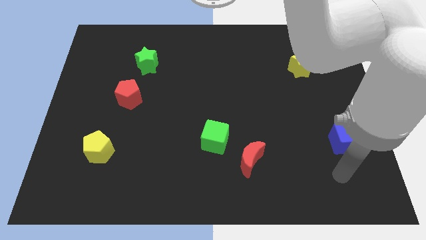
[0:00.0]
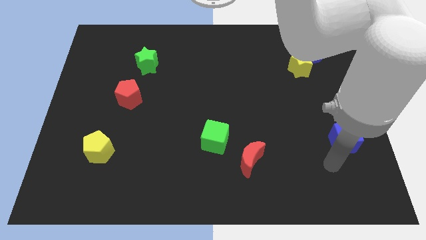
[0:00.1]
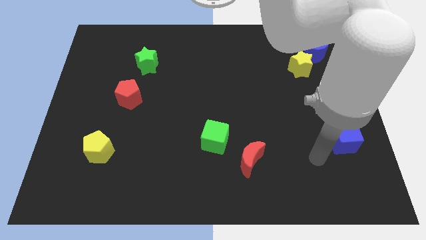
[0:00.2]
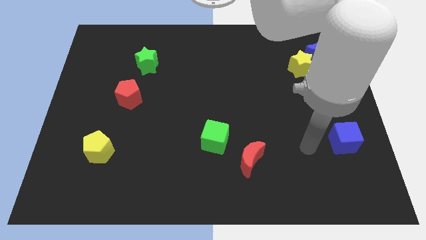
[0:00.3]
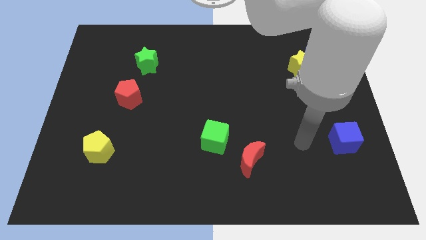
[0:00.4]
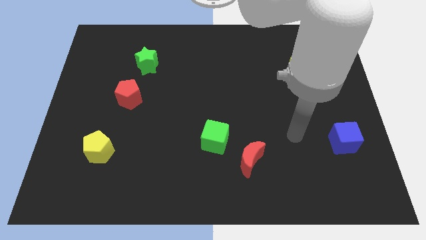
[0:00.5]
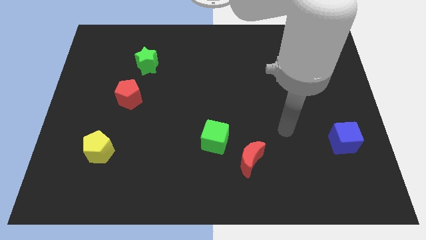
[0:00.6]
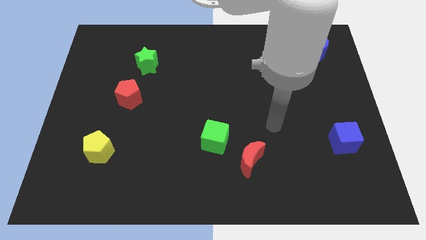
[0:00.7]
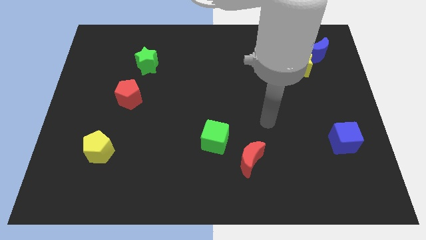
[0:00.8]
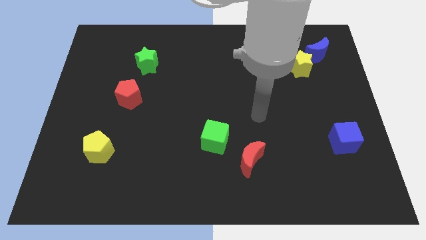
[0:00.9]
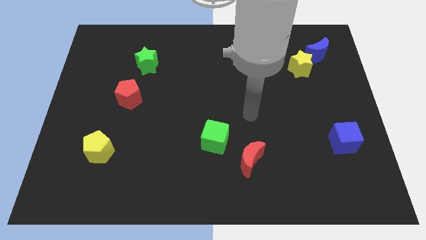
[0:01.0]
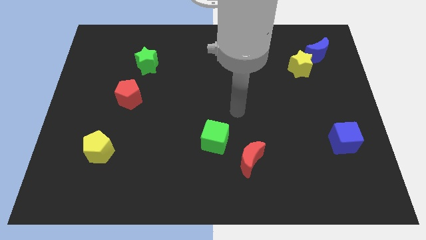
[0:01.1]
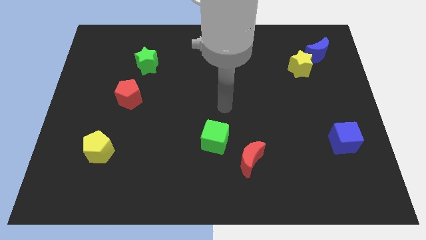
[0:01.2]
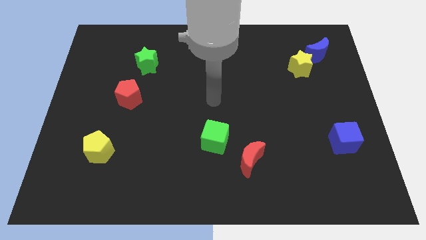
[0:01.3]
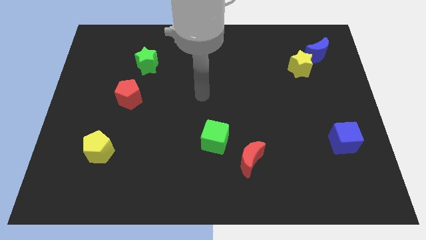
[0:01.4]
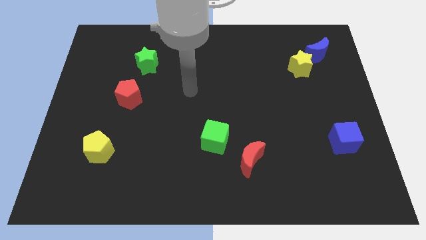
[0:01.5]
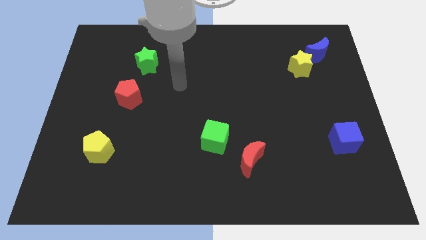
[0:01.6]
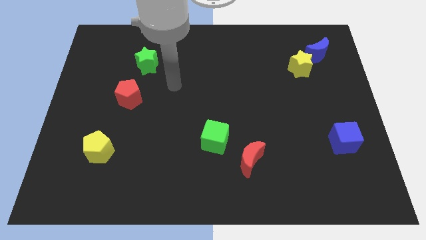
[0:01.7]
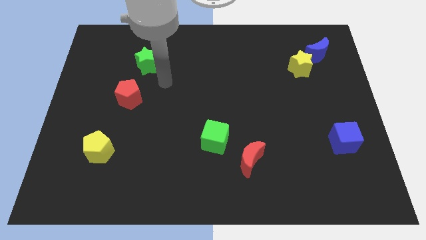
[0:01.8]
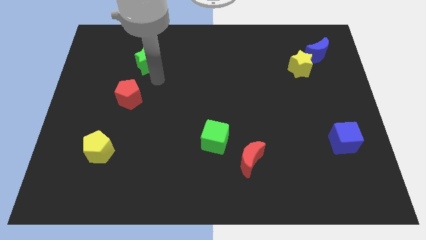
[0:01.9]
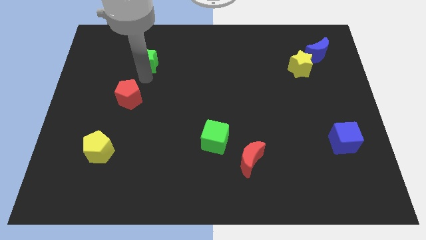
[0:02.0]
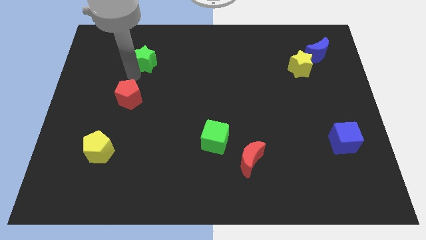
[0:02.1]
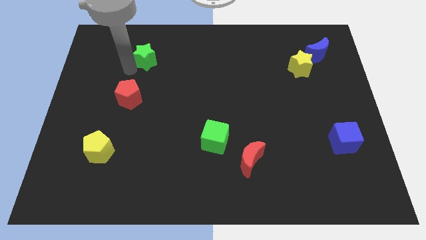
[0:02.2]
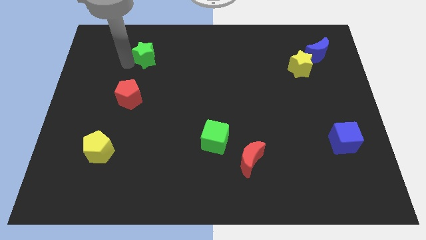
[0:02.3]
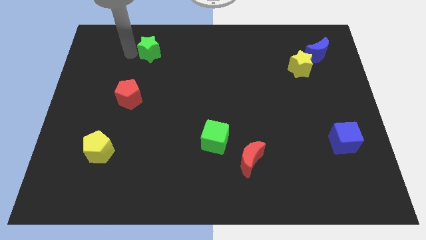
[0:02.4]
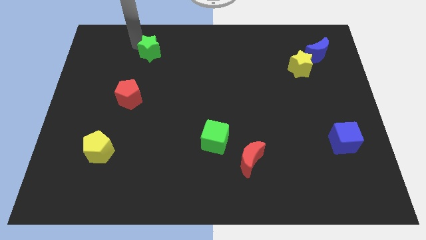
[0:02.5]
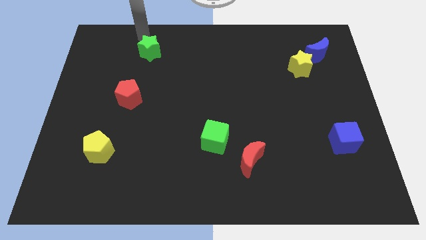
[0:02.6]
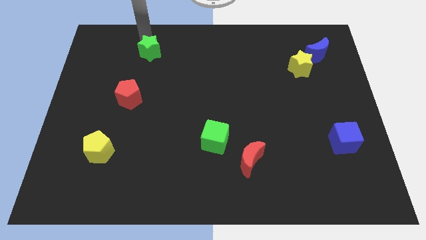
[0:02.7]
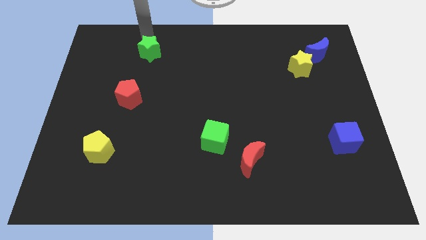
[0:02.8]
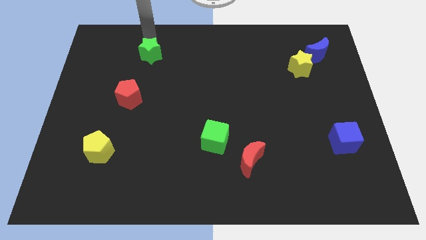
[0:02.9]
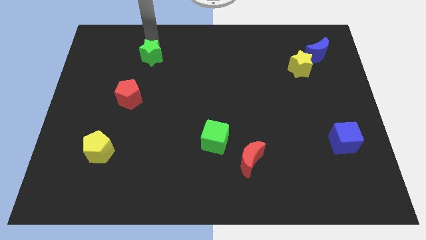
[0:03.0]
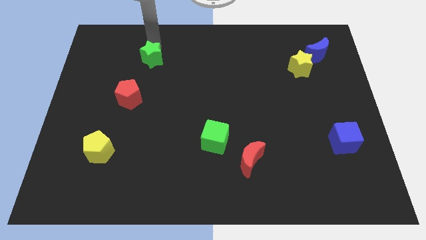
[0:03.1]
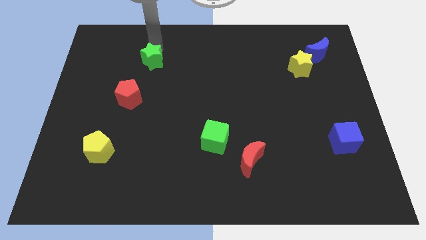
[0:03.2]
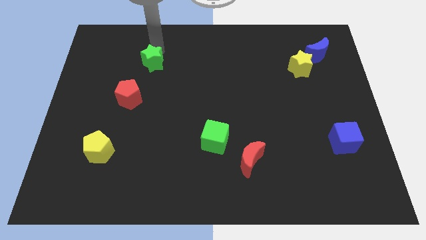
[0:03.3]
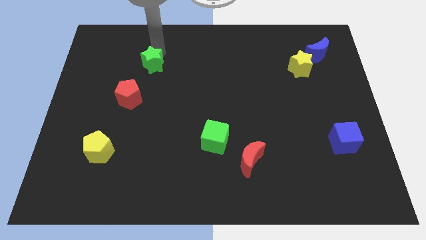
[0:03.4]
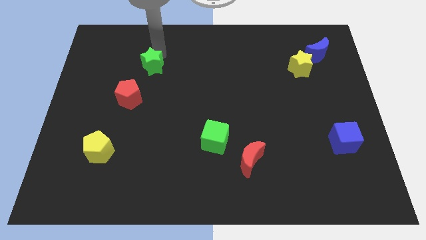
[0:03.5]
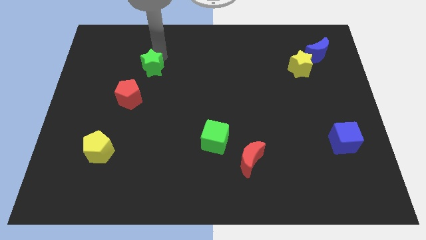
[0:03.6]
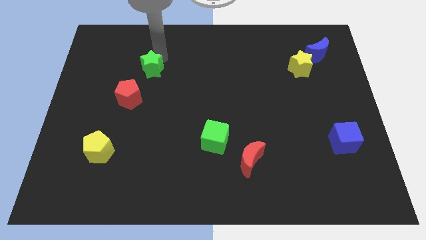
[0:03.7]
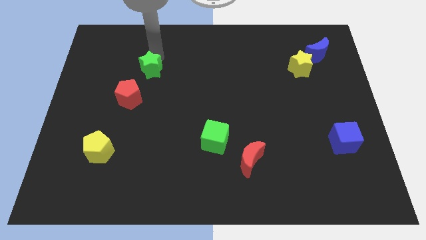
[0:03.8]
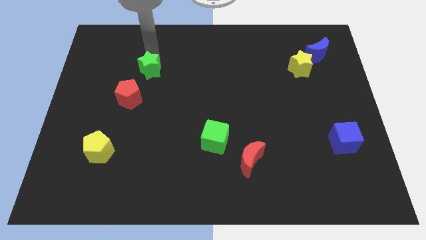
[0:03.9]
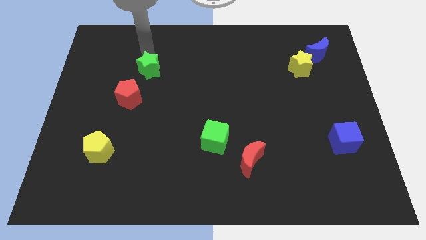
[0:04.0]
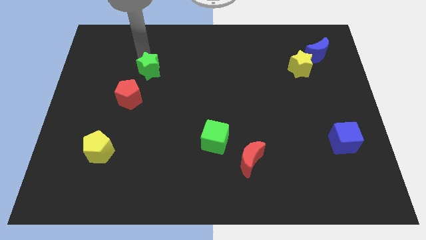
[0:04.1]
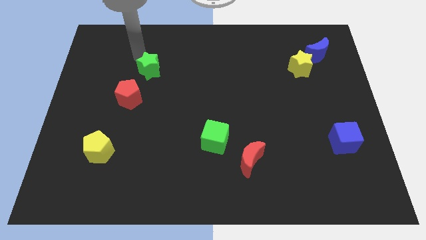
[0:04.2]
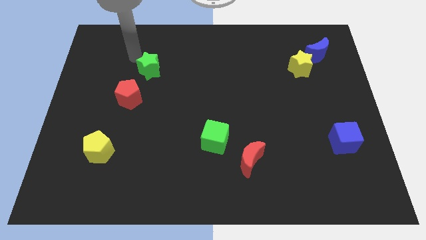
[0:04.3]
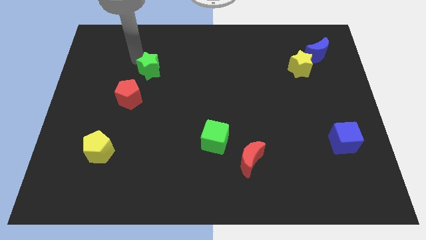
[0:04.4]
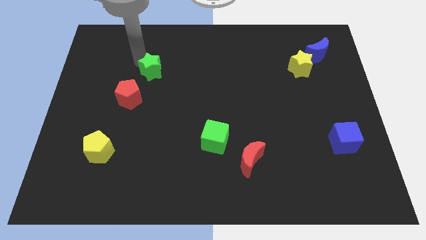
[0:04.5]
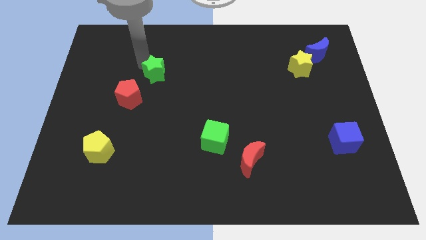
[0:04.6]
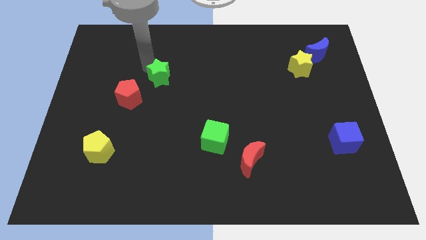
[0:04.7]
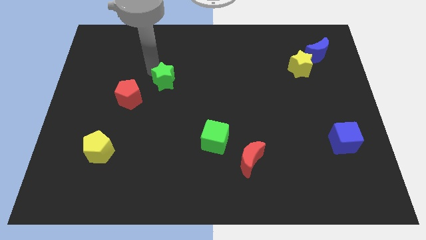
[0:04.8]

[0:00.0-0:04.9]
slide the green star down and to the right diagonally a bit

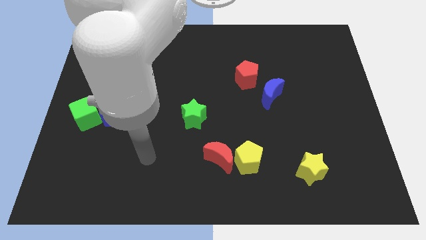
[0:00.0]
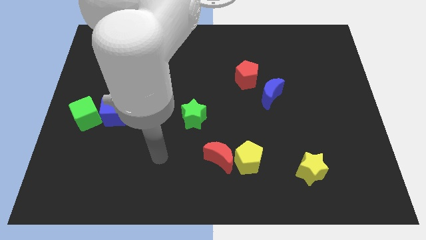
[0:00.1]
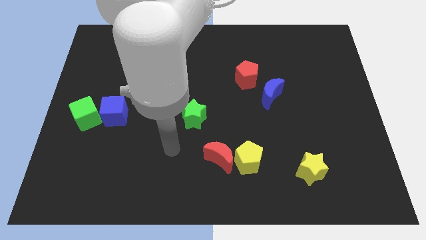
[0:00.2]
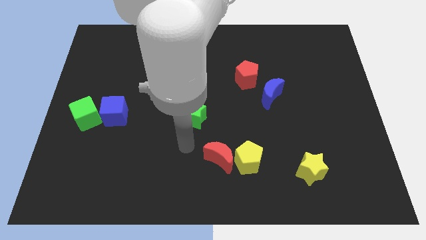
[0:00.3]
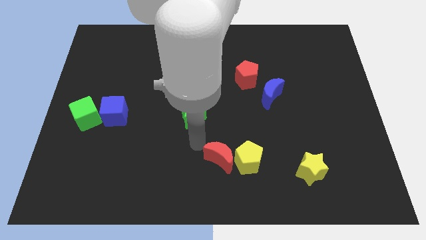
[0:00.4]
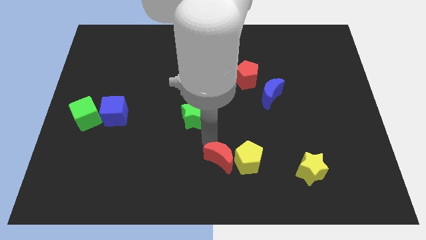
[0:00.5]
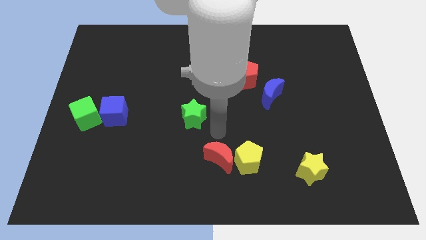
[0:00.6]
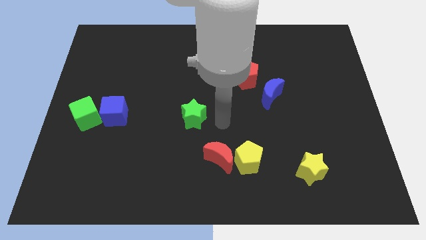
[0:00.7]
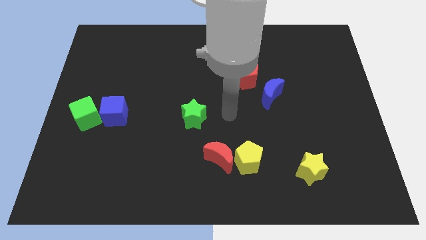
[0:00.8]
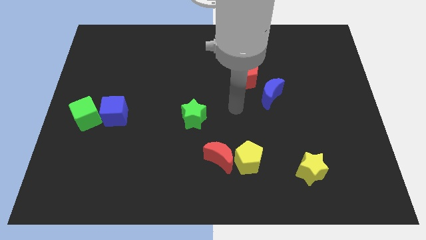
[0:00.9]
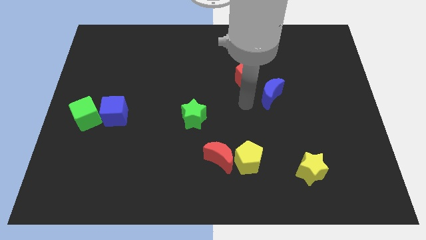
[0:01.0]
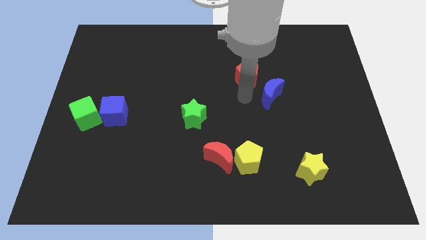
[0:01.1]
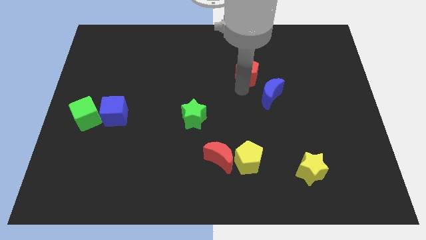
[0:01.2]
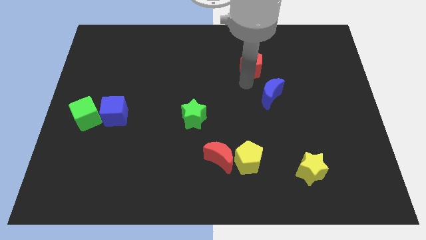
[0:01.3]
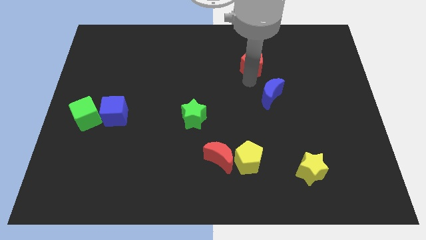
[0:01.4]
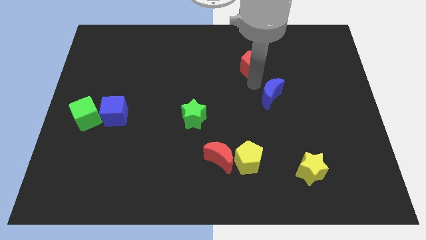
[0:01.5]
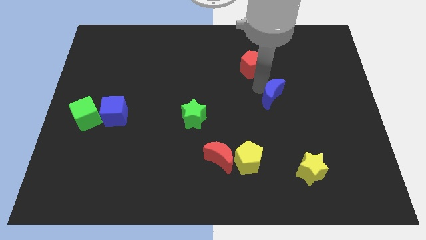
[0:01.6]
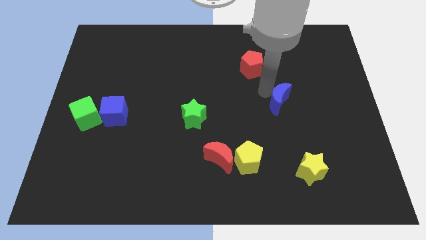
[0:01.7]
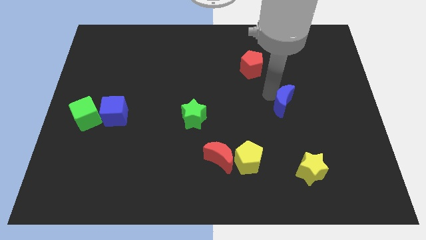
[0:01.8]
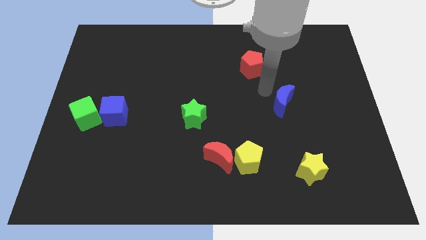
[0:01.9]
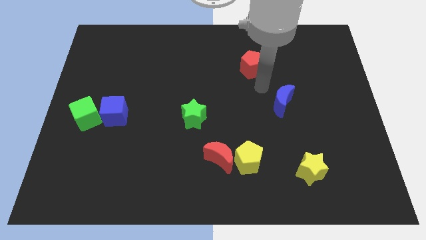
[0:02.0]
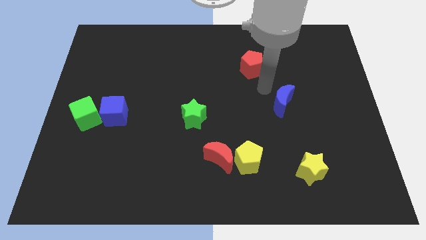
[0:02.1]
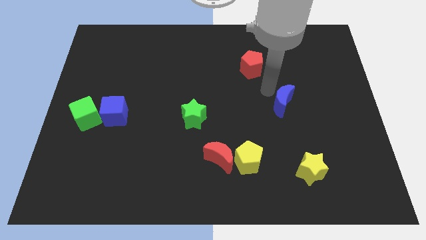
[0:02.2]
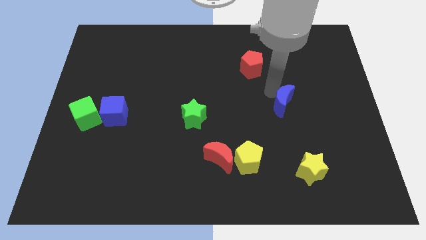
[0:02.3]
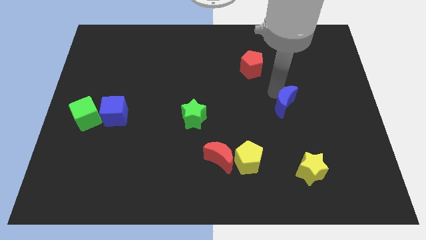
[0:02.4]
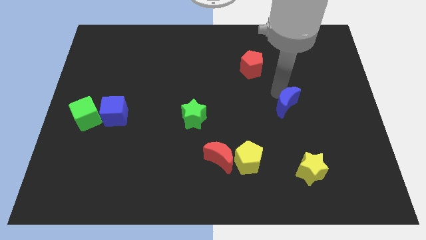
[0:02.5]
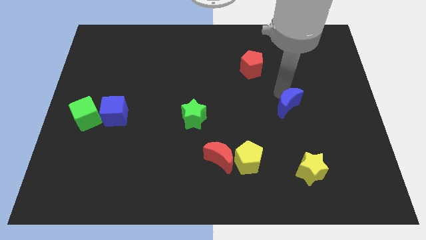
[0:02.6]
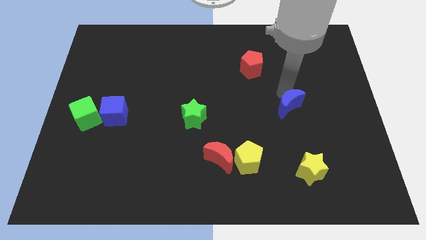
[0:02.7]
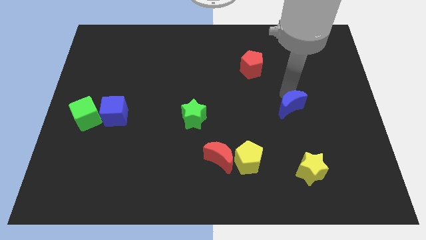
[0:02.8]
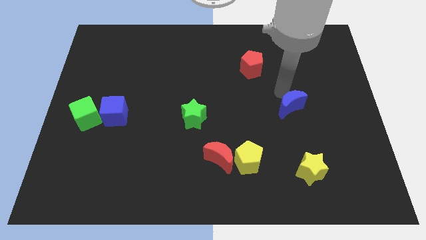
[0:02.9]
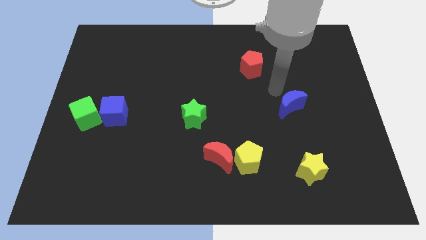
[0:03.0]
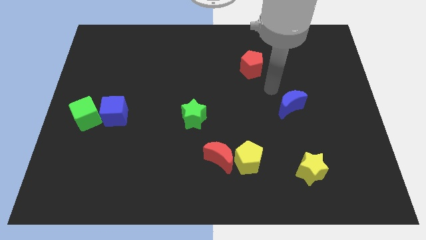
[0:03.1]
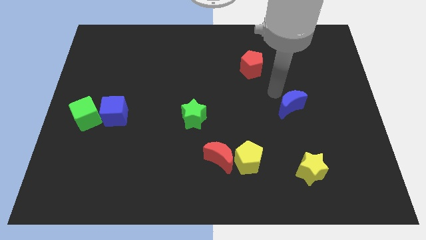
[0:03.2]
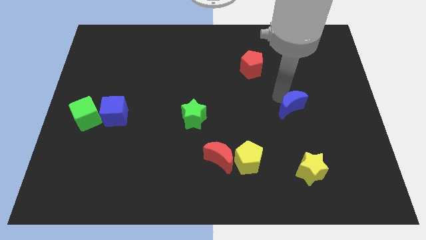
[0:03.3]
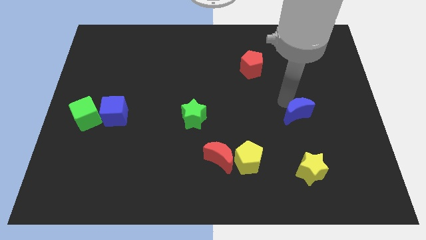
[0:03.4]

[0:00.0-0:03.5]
move the blue moon downwards and right diagonally a bit

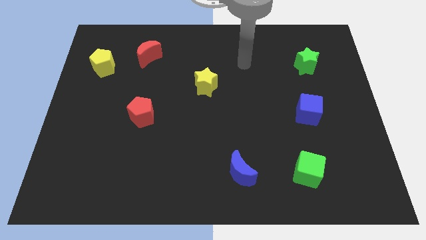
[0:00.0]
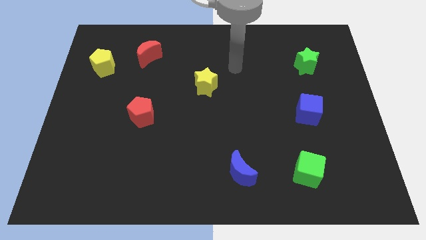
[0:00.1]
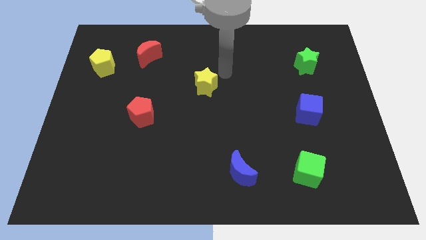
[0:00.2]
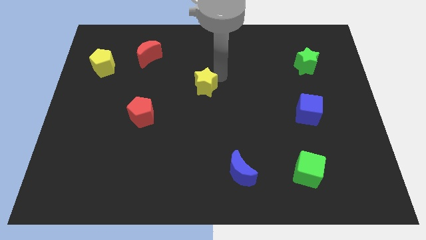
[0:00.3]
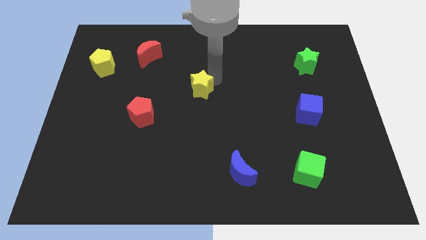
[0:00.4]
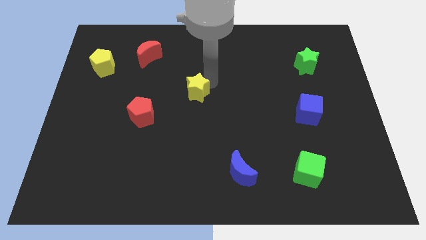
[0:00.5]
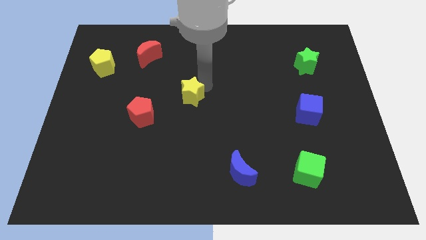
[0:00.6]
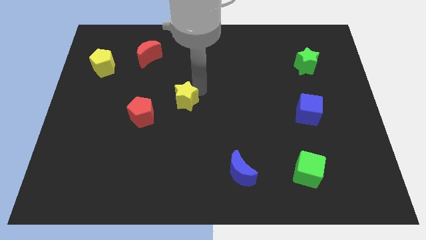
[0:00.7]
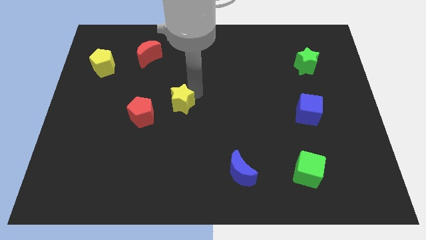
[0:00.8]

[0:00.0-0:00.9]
slightly move the yellow star diagonally down and to the left
